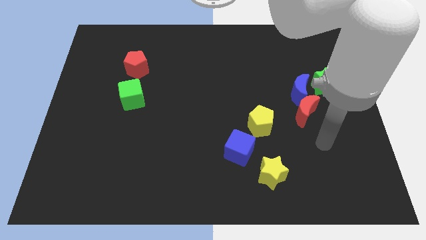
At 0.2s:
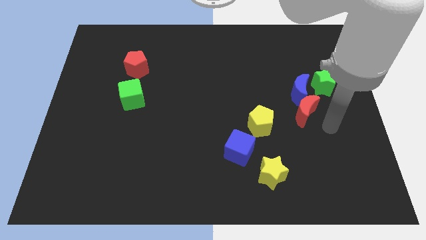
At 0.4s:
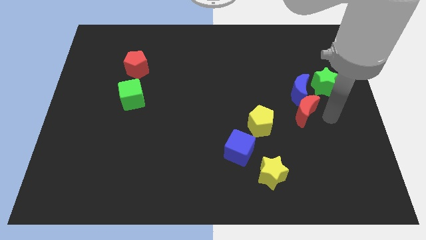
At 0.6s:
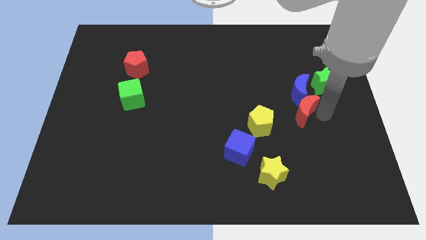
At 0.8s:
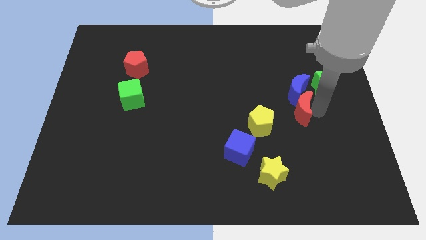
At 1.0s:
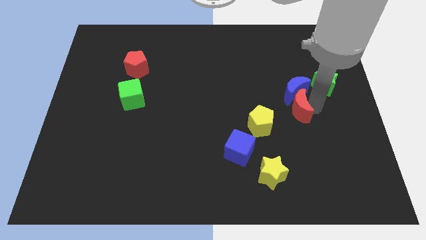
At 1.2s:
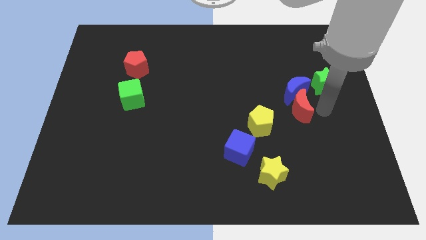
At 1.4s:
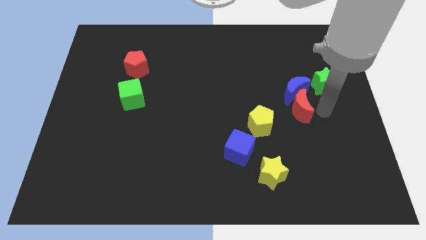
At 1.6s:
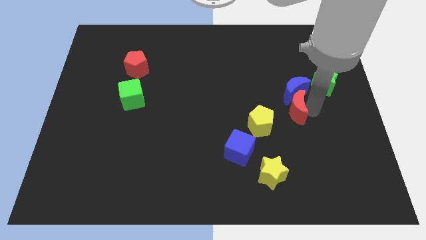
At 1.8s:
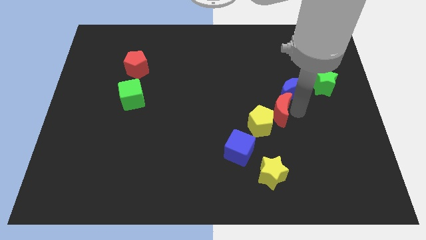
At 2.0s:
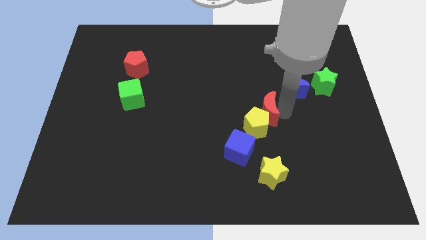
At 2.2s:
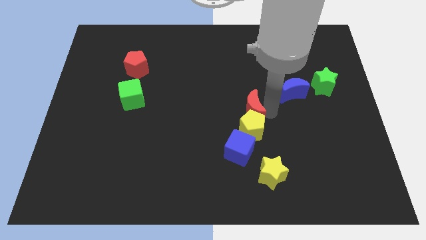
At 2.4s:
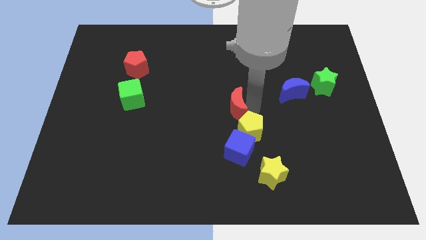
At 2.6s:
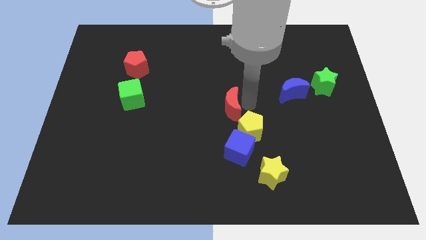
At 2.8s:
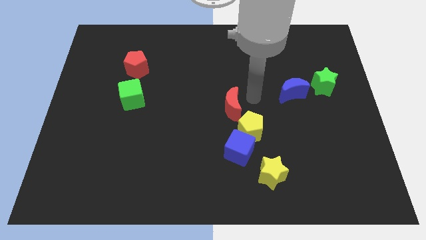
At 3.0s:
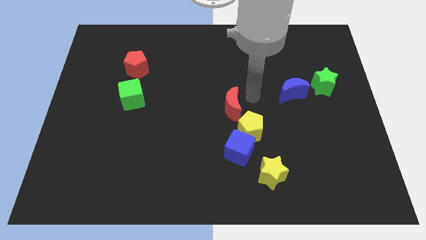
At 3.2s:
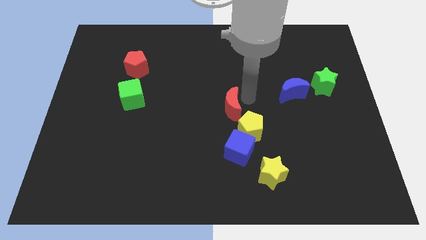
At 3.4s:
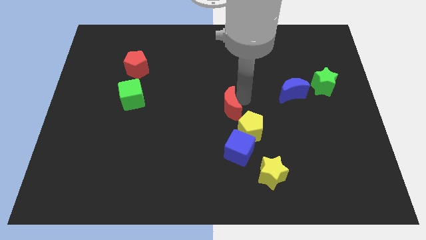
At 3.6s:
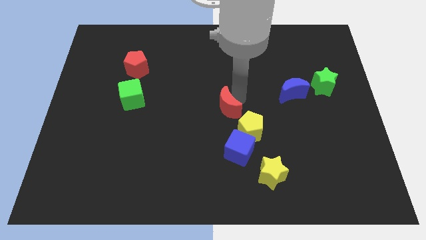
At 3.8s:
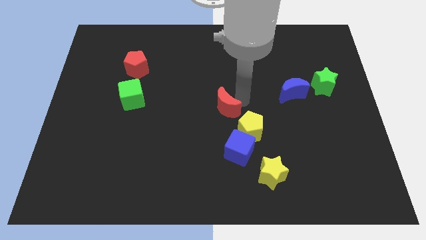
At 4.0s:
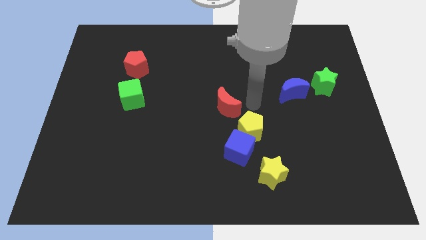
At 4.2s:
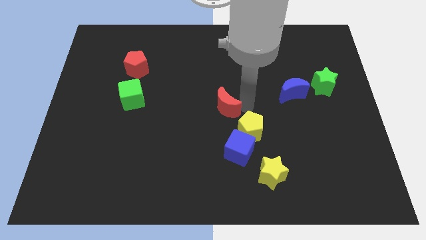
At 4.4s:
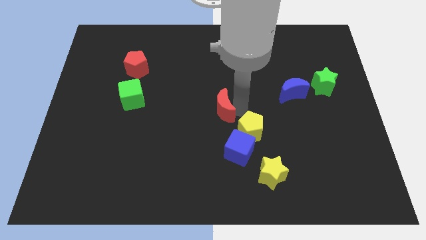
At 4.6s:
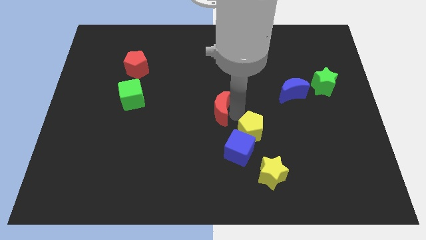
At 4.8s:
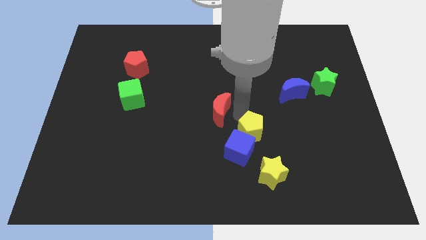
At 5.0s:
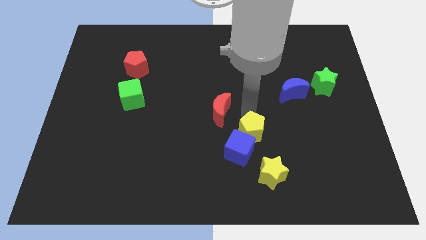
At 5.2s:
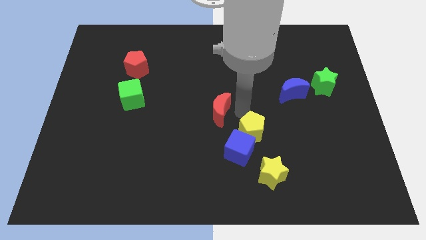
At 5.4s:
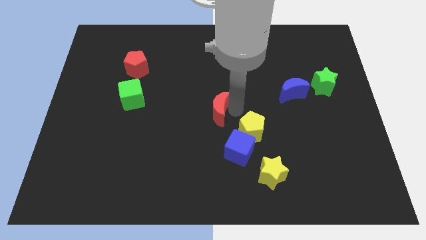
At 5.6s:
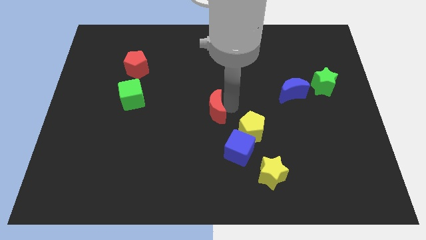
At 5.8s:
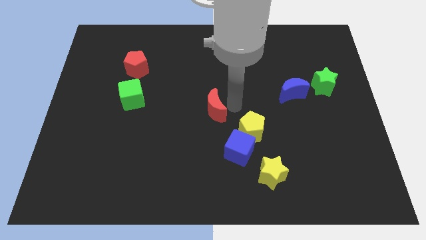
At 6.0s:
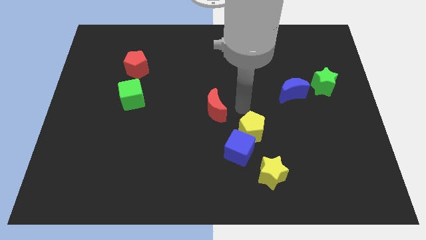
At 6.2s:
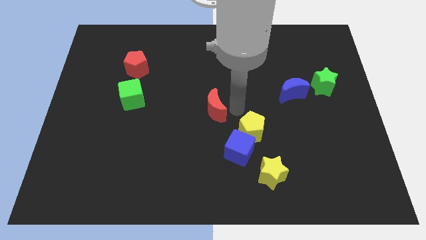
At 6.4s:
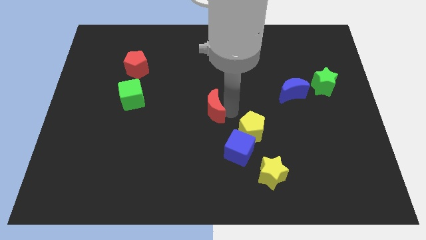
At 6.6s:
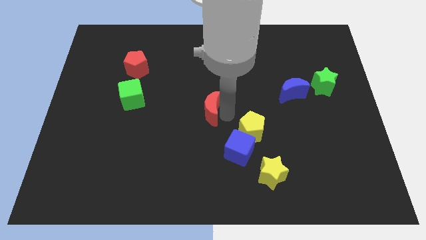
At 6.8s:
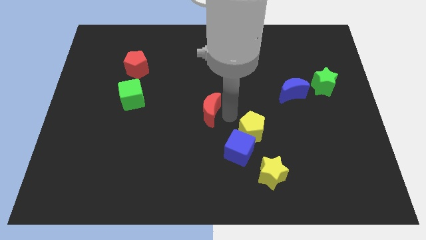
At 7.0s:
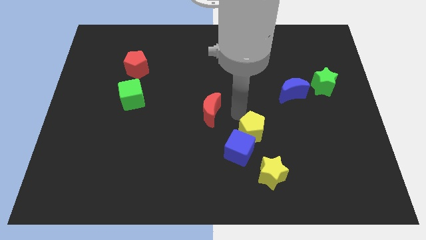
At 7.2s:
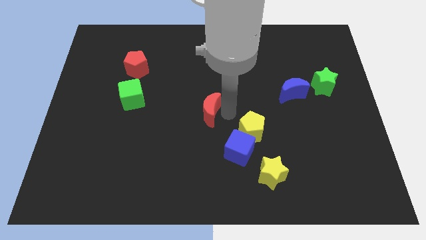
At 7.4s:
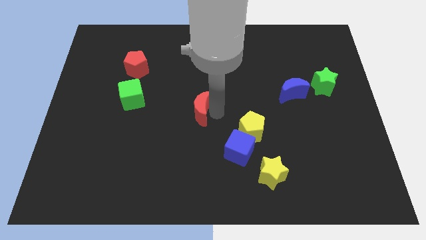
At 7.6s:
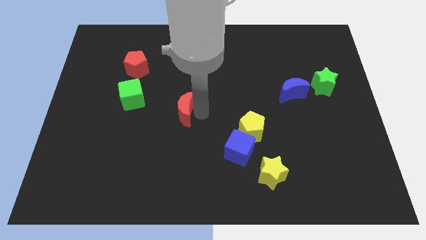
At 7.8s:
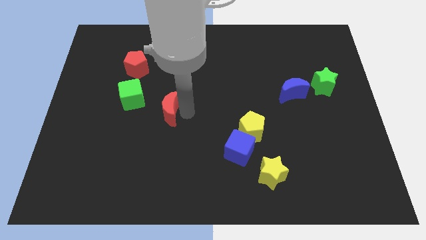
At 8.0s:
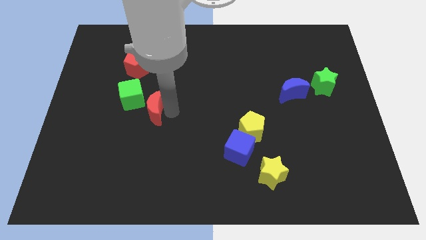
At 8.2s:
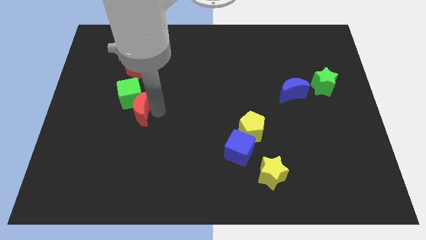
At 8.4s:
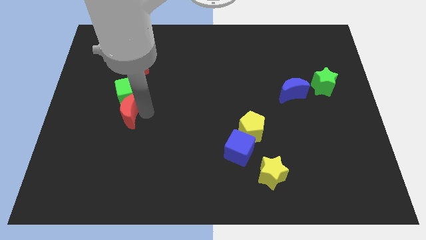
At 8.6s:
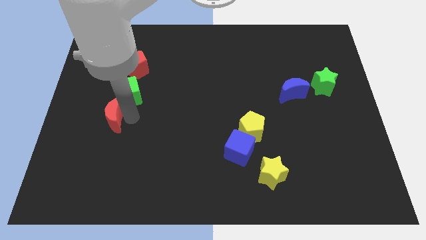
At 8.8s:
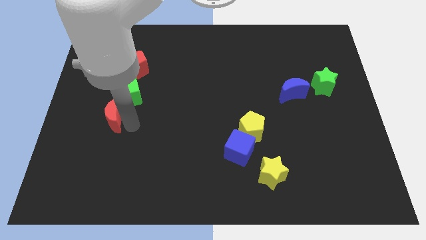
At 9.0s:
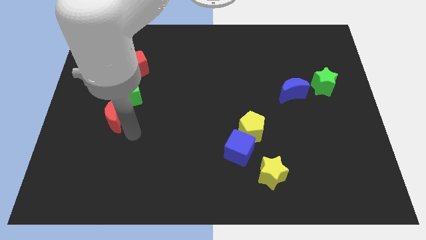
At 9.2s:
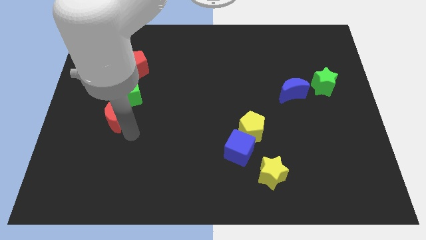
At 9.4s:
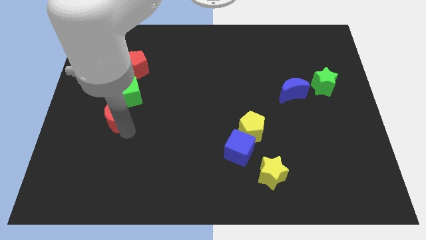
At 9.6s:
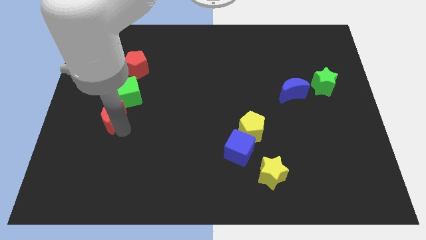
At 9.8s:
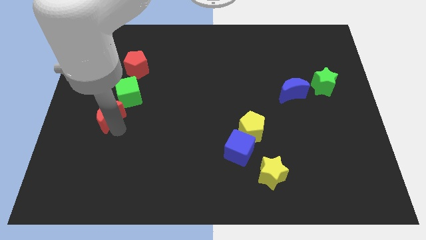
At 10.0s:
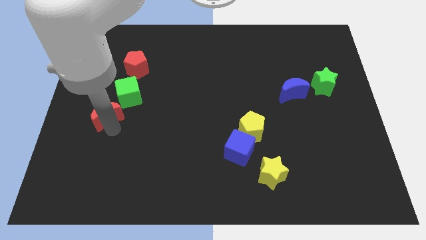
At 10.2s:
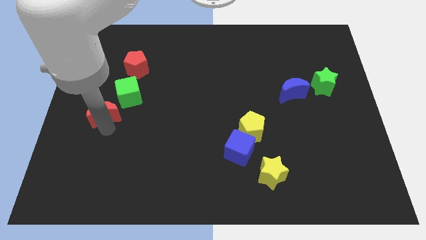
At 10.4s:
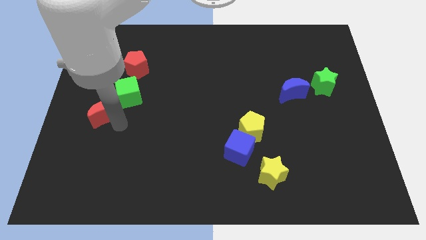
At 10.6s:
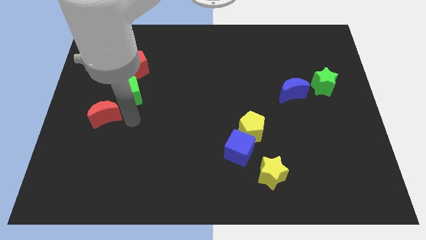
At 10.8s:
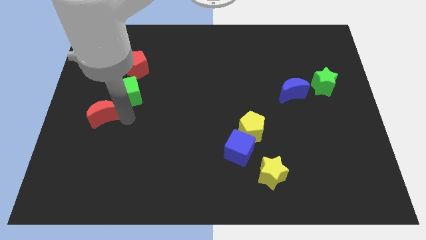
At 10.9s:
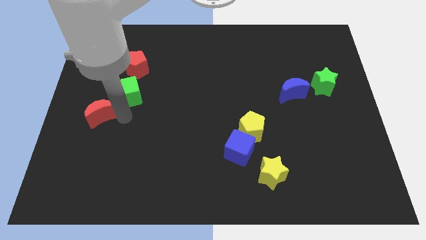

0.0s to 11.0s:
slide the red moon to the center left

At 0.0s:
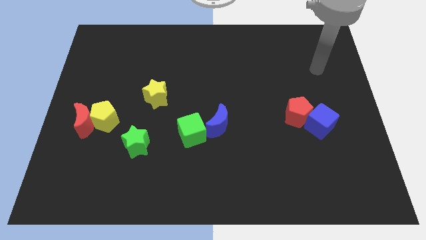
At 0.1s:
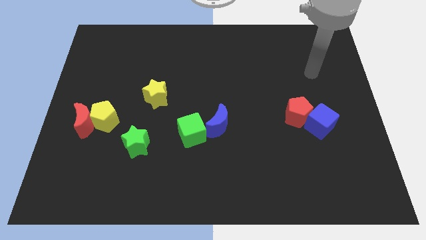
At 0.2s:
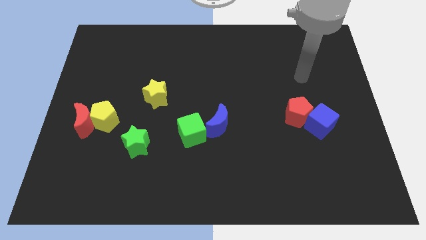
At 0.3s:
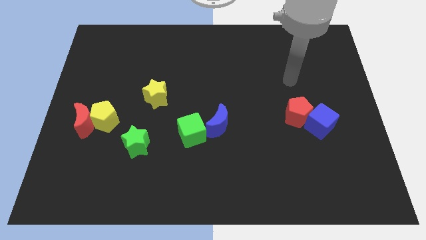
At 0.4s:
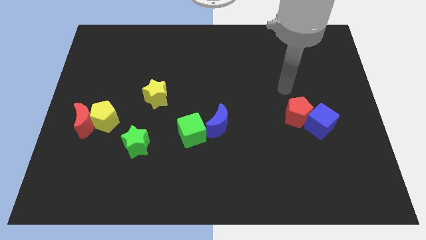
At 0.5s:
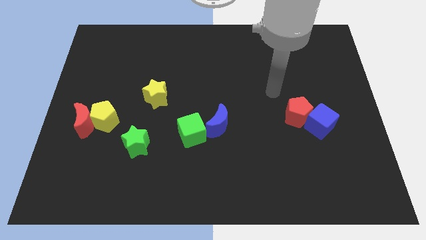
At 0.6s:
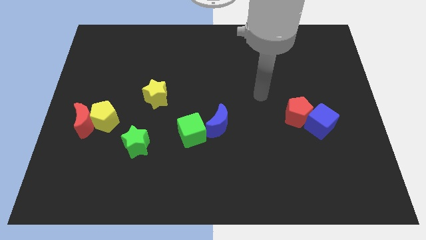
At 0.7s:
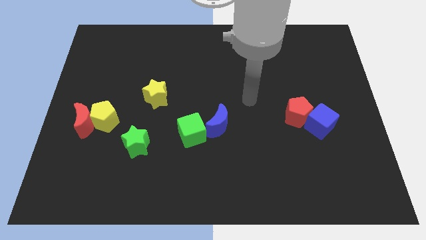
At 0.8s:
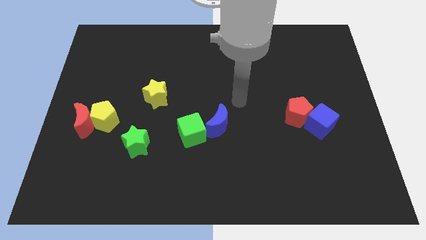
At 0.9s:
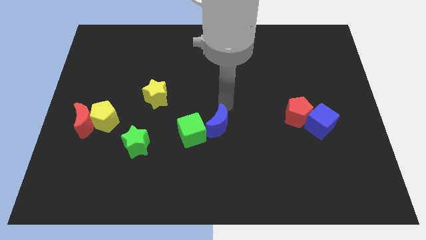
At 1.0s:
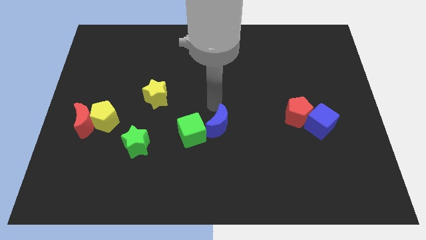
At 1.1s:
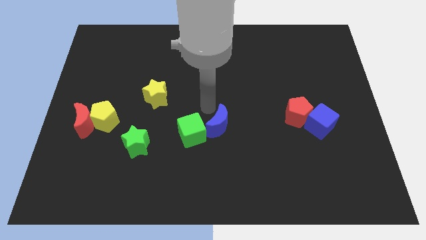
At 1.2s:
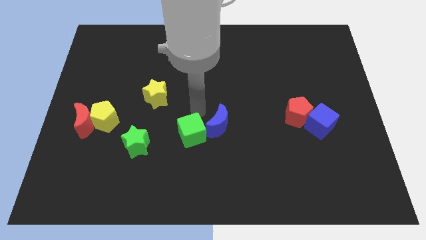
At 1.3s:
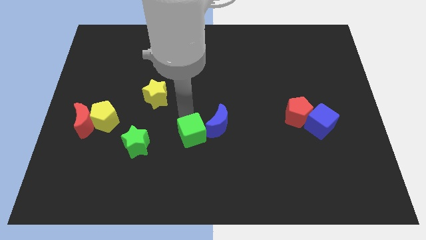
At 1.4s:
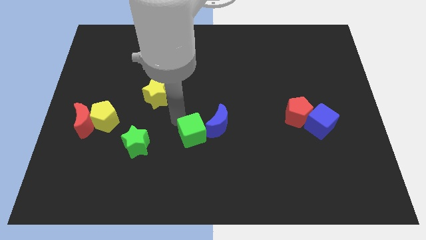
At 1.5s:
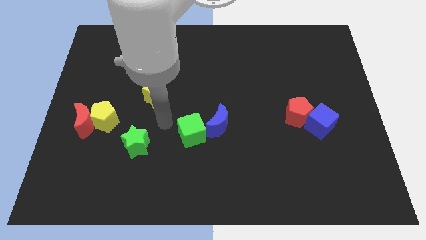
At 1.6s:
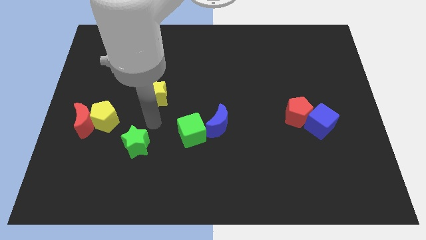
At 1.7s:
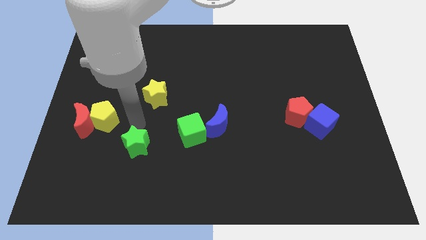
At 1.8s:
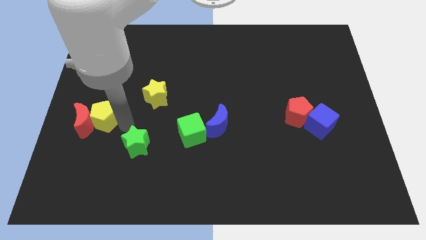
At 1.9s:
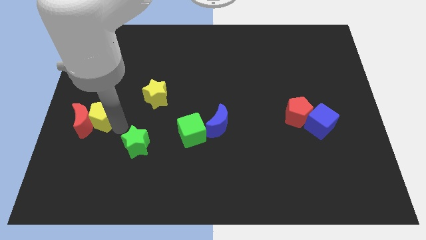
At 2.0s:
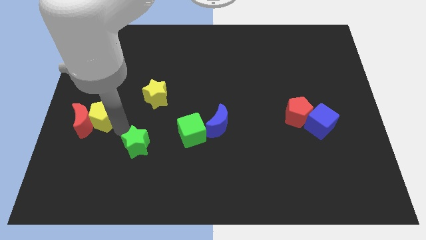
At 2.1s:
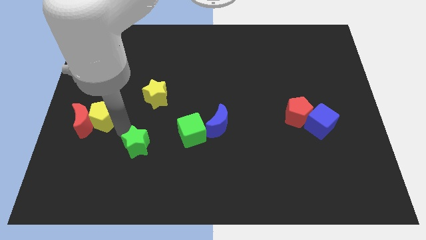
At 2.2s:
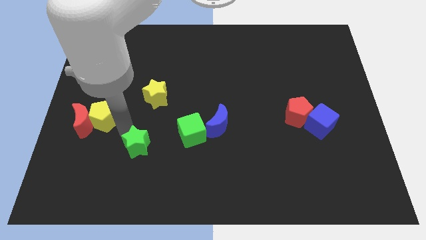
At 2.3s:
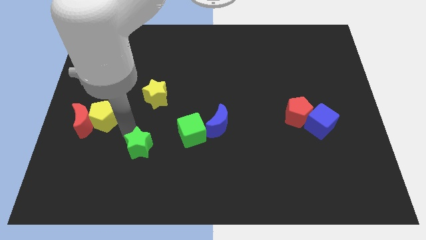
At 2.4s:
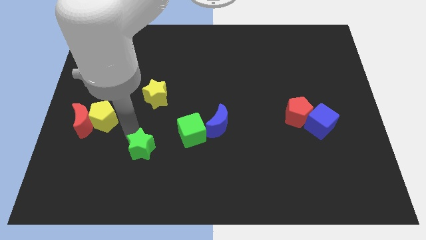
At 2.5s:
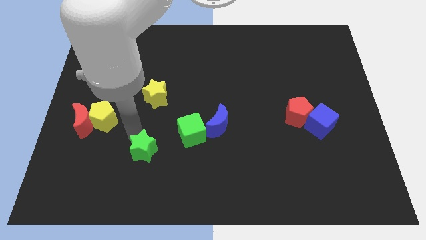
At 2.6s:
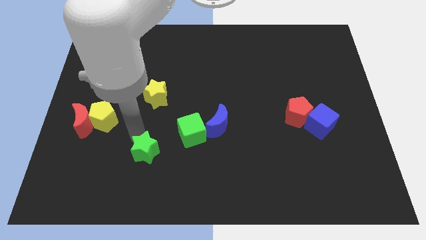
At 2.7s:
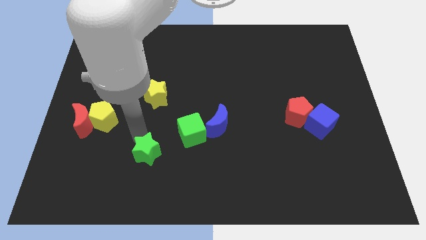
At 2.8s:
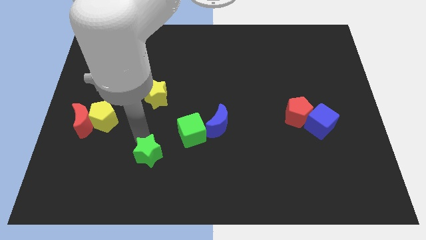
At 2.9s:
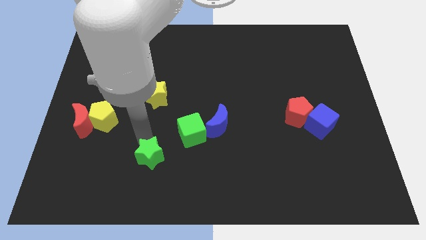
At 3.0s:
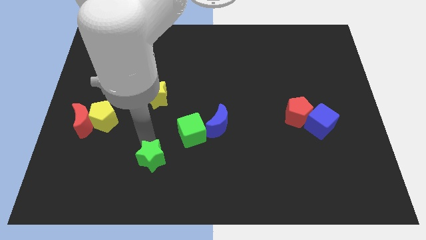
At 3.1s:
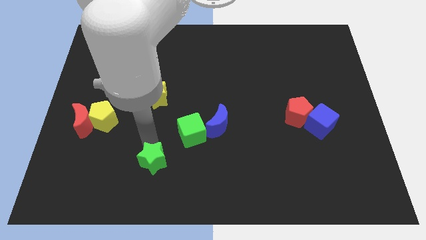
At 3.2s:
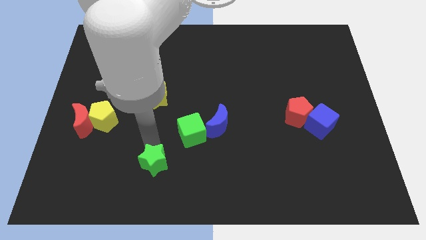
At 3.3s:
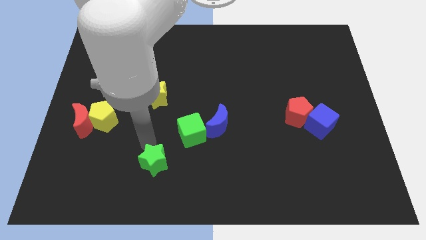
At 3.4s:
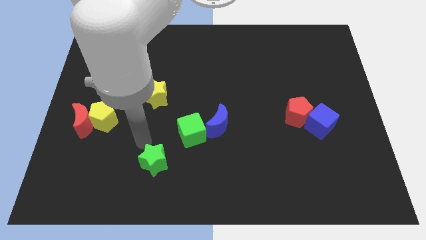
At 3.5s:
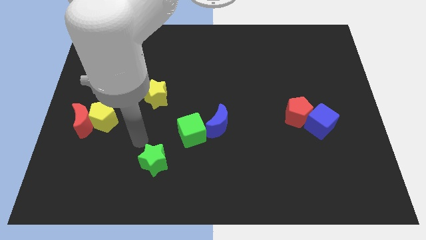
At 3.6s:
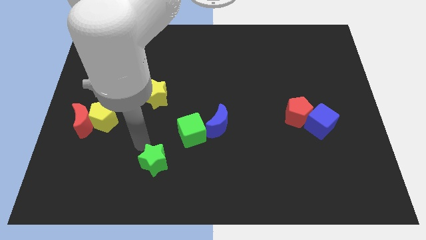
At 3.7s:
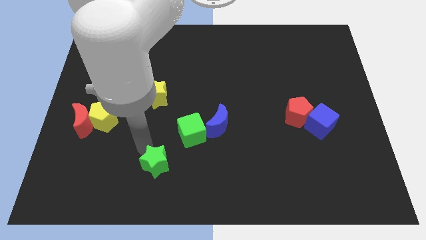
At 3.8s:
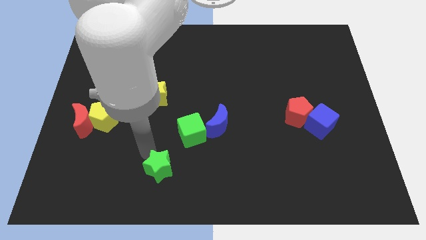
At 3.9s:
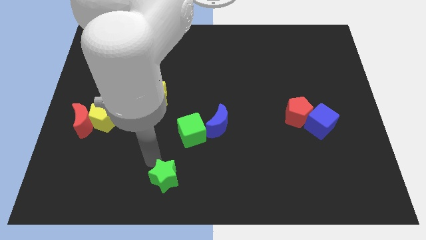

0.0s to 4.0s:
move the green star to the bottom
